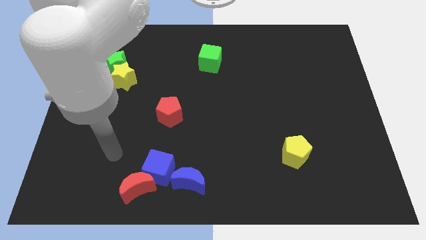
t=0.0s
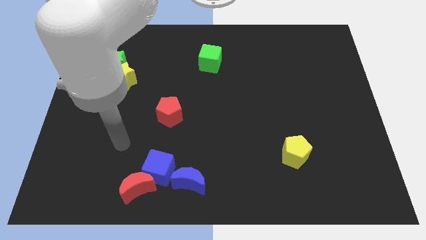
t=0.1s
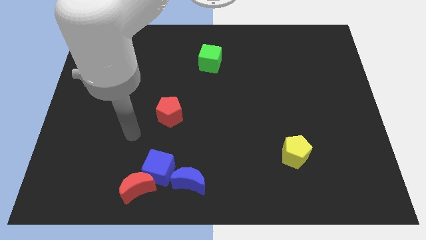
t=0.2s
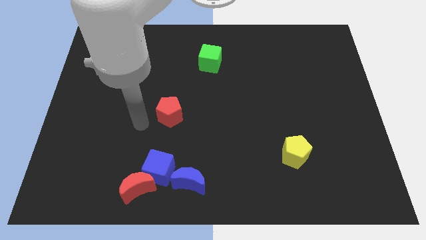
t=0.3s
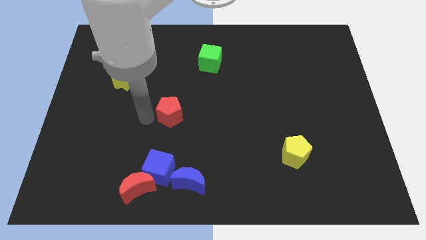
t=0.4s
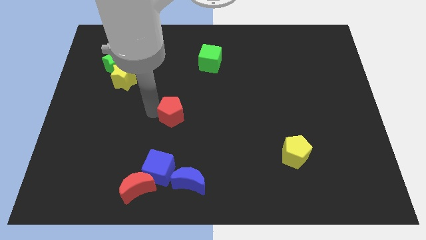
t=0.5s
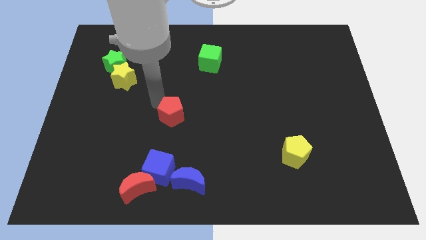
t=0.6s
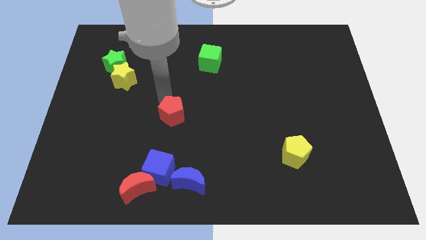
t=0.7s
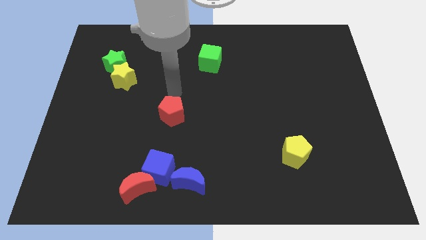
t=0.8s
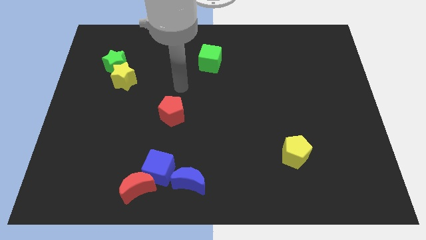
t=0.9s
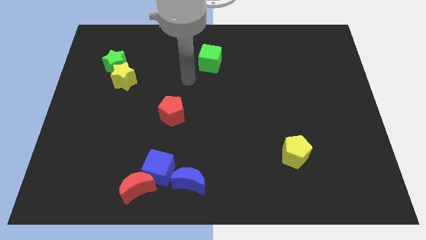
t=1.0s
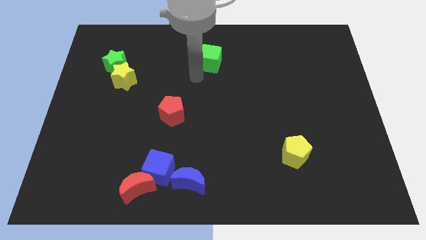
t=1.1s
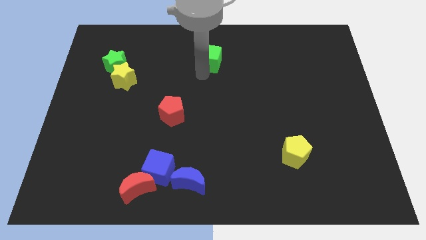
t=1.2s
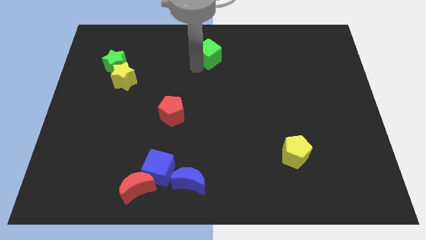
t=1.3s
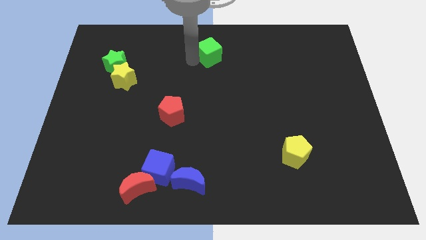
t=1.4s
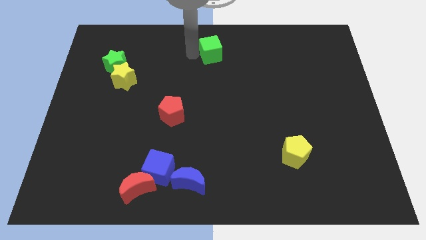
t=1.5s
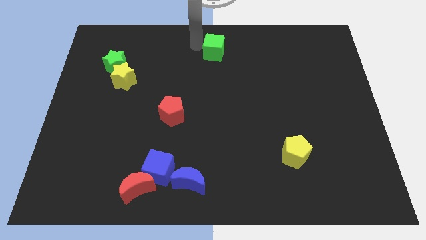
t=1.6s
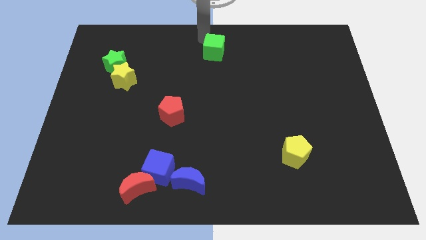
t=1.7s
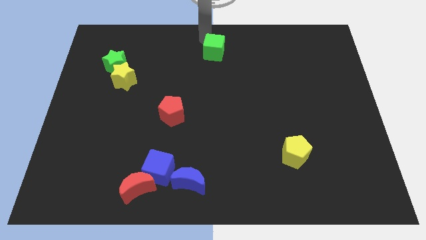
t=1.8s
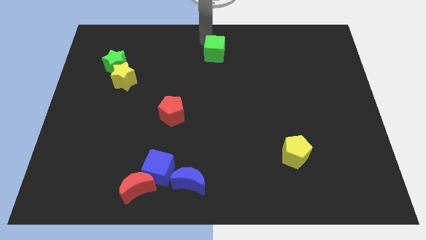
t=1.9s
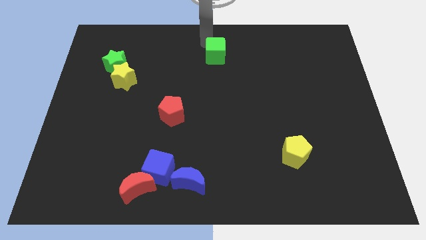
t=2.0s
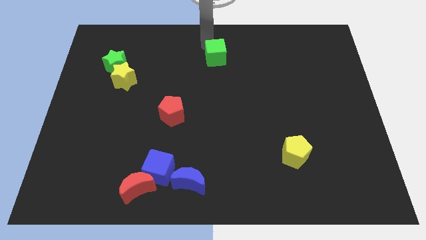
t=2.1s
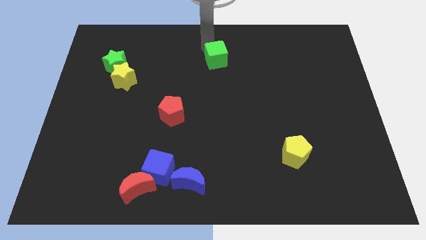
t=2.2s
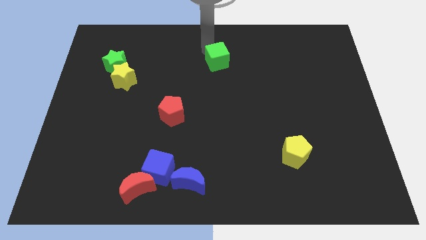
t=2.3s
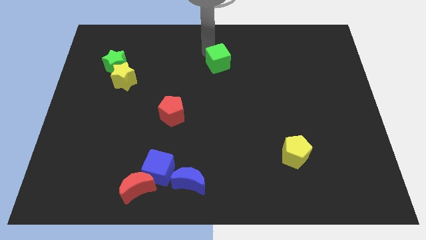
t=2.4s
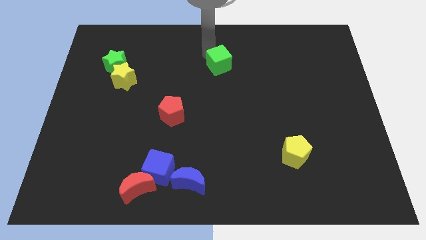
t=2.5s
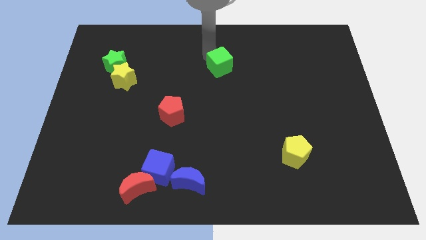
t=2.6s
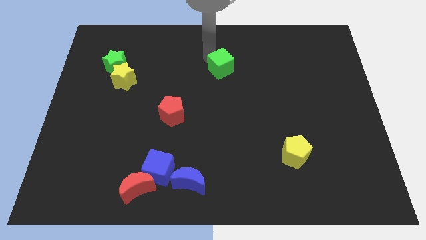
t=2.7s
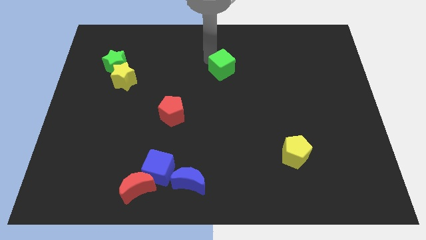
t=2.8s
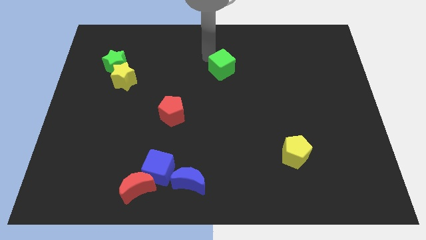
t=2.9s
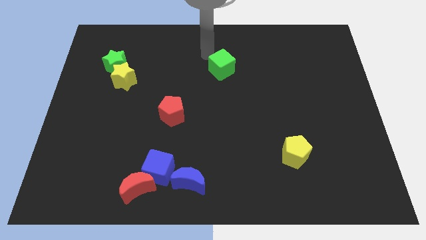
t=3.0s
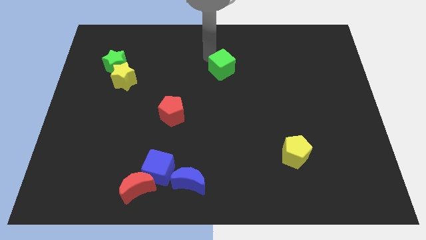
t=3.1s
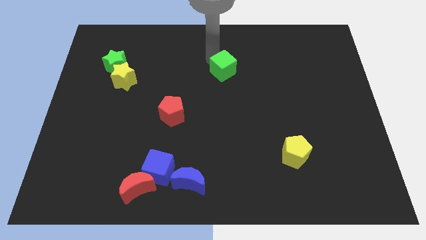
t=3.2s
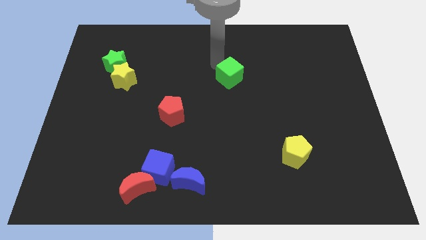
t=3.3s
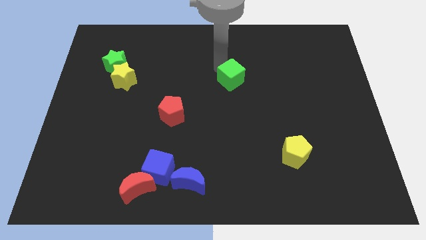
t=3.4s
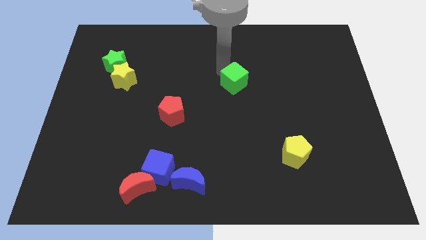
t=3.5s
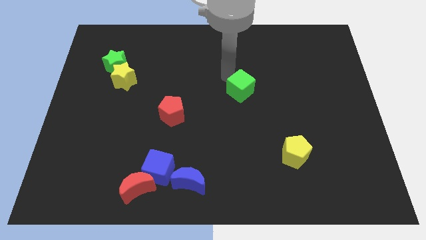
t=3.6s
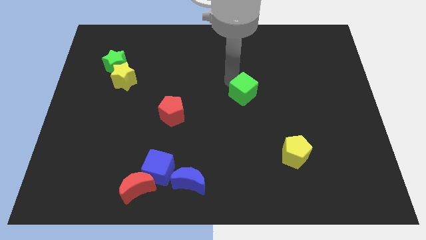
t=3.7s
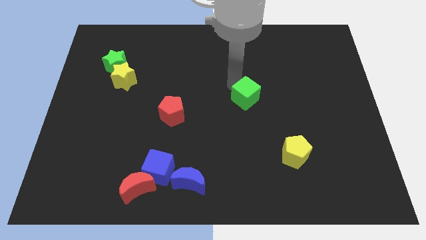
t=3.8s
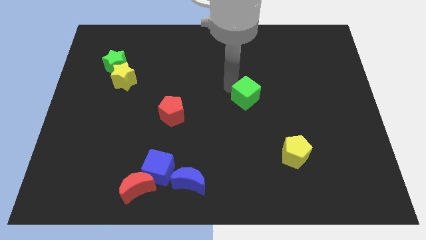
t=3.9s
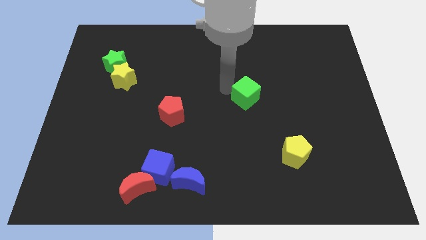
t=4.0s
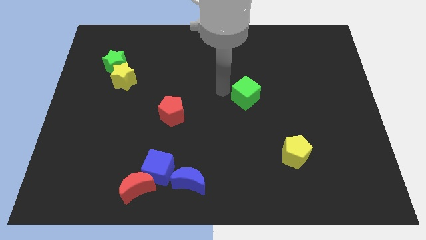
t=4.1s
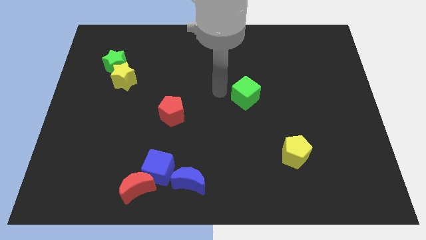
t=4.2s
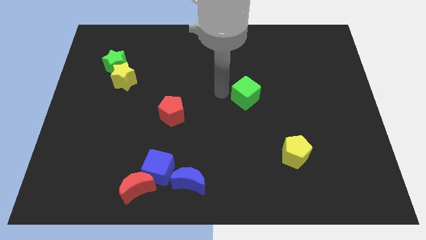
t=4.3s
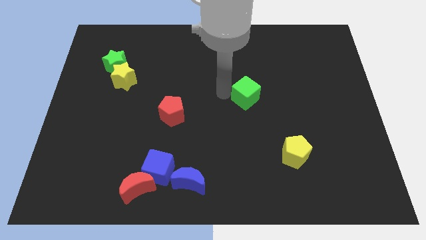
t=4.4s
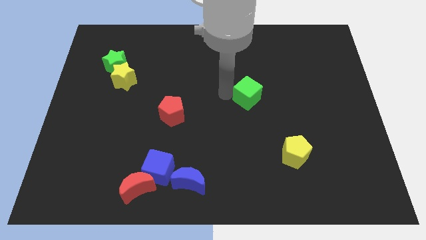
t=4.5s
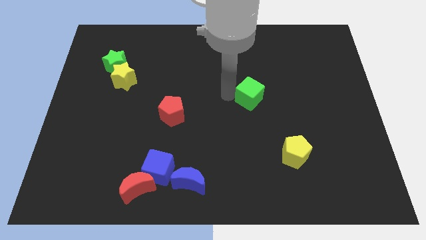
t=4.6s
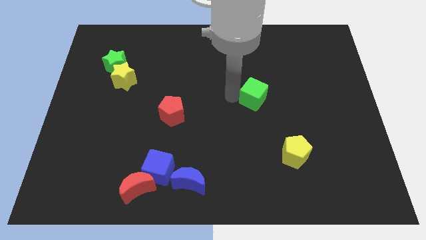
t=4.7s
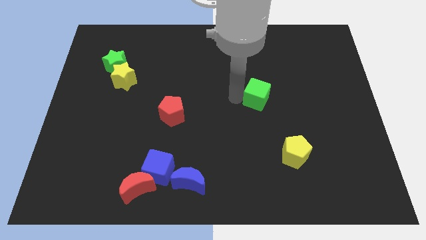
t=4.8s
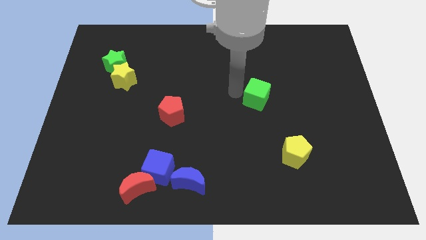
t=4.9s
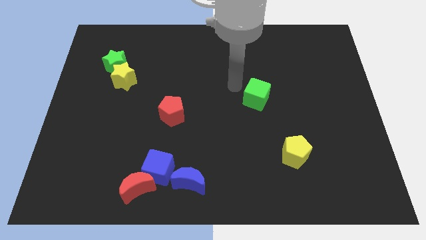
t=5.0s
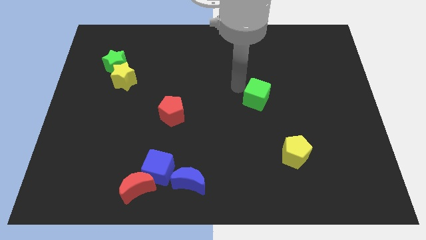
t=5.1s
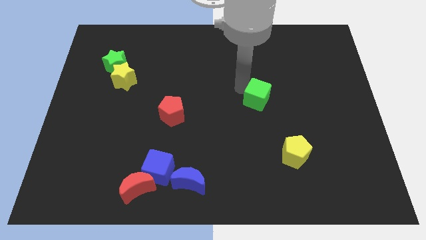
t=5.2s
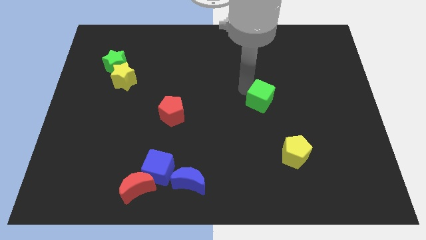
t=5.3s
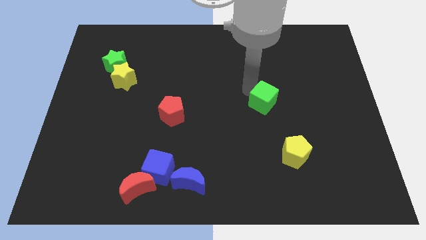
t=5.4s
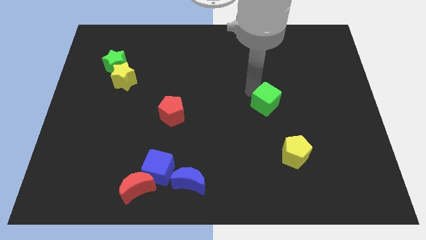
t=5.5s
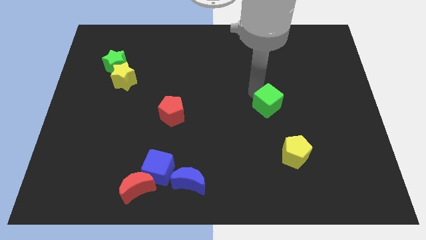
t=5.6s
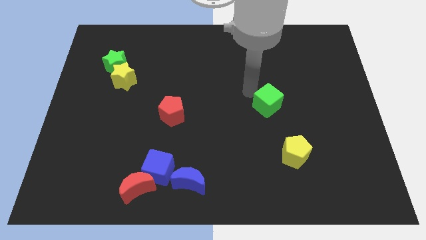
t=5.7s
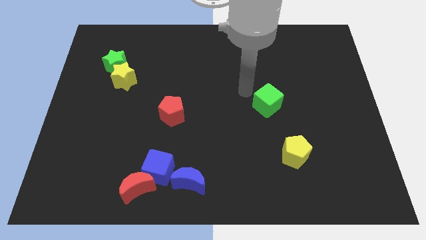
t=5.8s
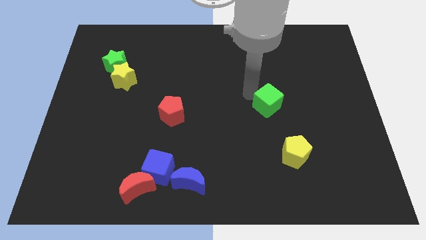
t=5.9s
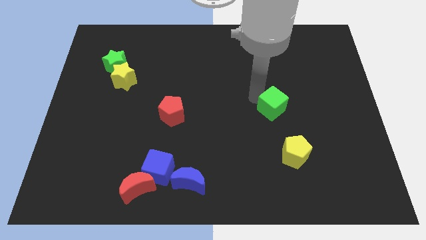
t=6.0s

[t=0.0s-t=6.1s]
slide the green cube to the top of the yellow pentagon

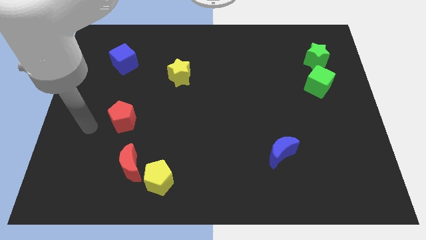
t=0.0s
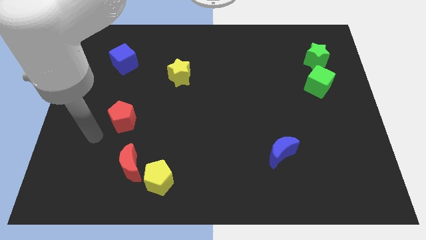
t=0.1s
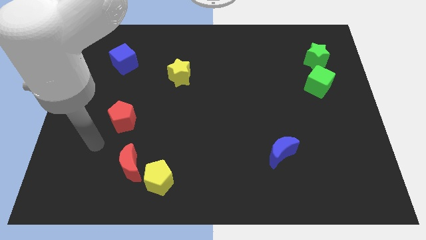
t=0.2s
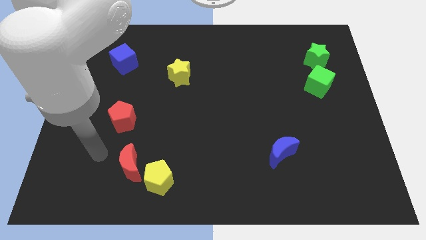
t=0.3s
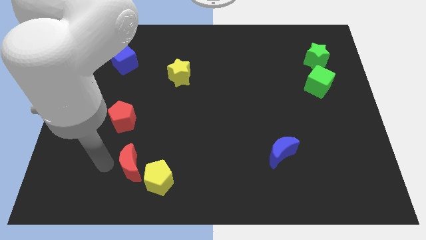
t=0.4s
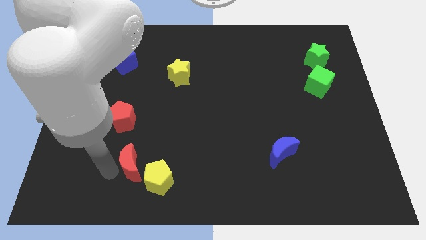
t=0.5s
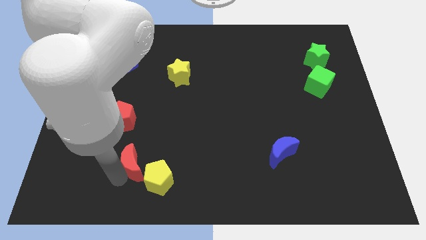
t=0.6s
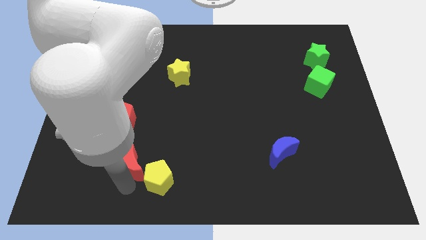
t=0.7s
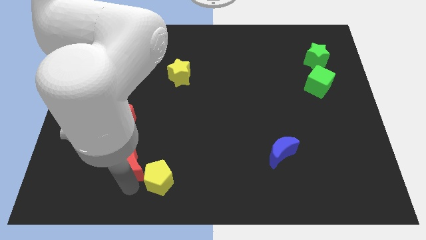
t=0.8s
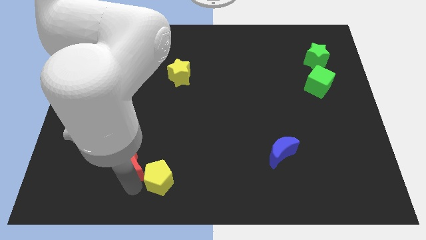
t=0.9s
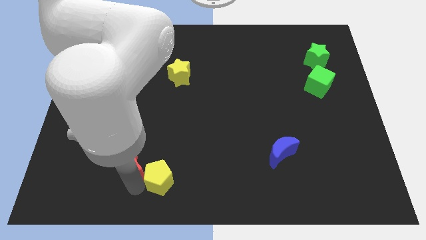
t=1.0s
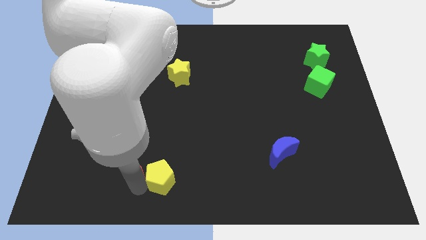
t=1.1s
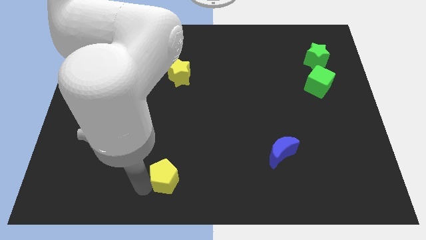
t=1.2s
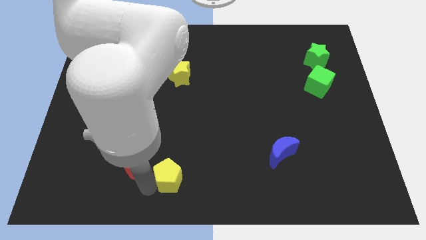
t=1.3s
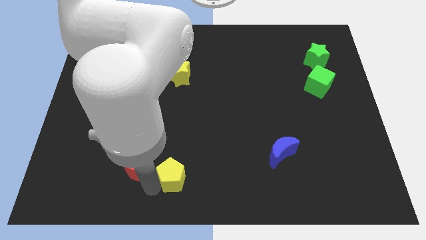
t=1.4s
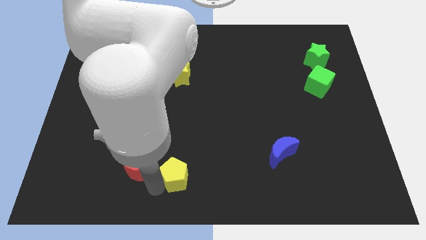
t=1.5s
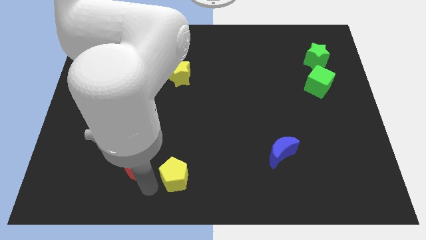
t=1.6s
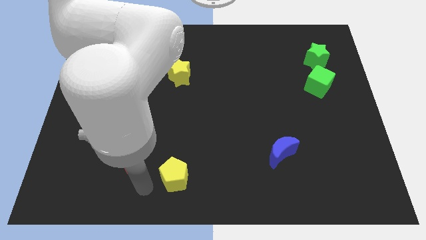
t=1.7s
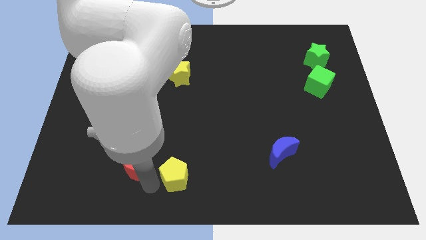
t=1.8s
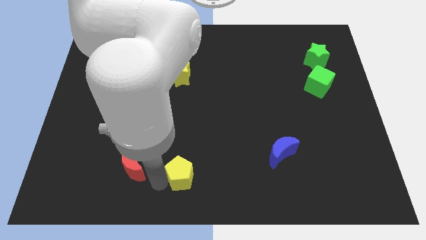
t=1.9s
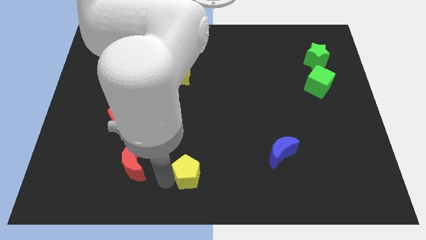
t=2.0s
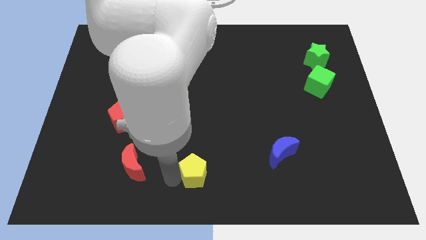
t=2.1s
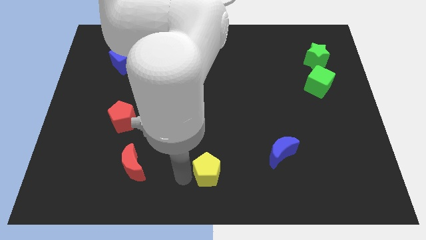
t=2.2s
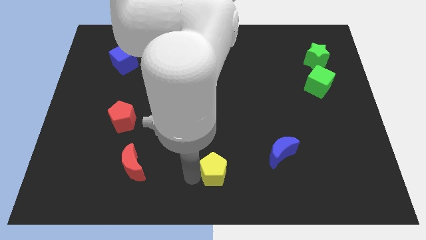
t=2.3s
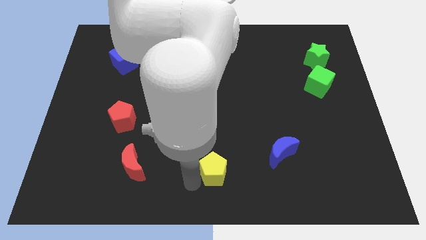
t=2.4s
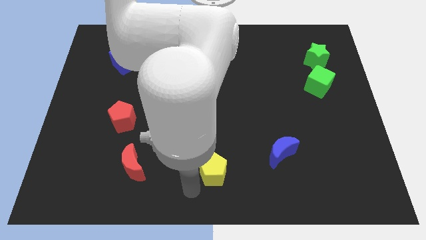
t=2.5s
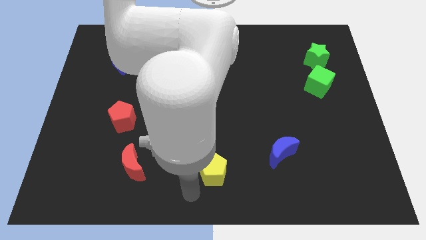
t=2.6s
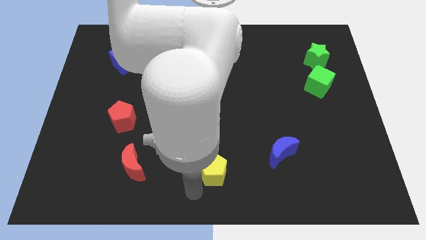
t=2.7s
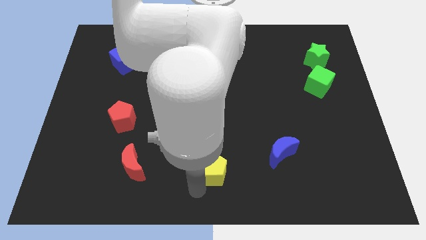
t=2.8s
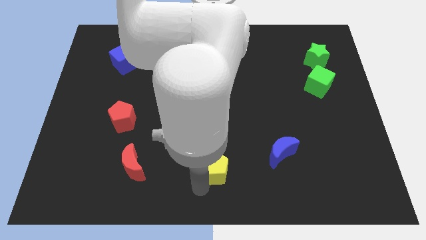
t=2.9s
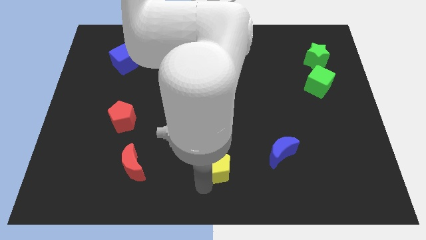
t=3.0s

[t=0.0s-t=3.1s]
move the yellow pentagon just left of the blue moon
